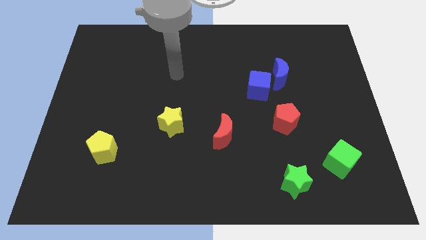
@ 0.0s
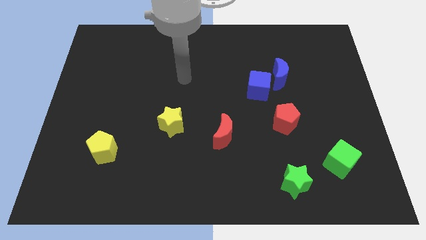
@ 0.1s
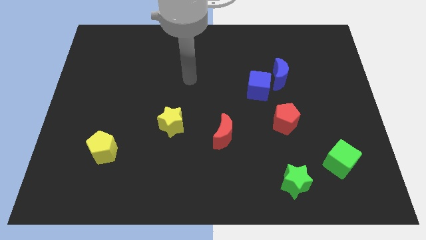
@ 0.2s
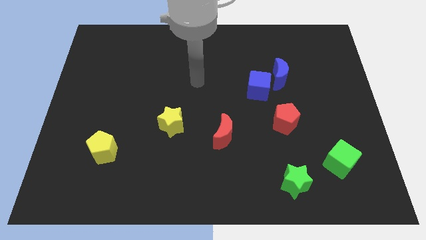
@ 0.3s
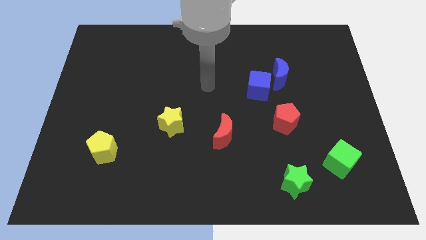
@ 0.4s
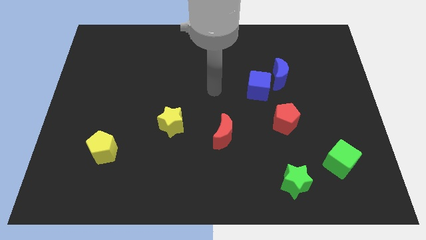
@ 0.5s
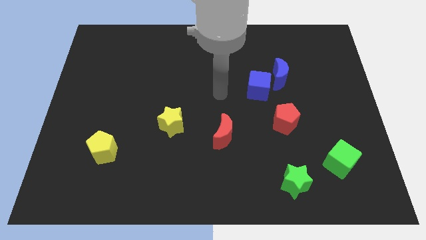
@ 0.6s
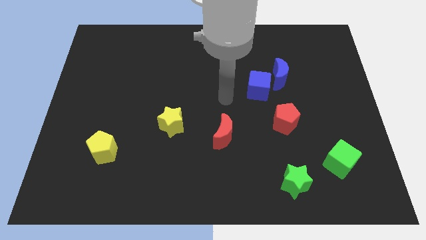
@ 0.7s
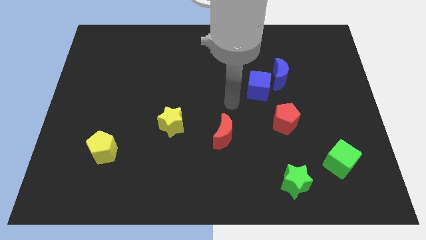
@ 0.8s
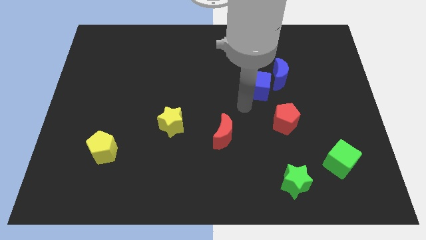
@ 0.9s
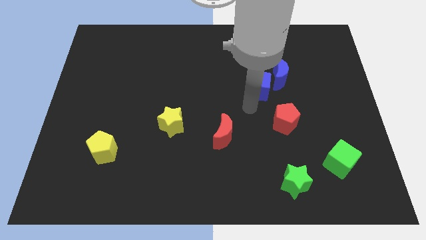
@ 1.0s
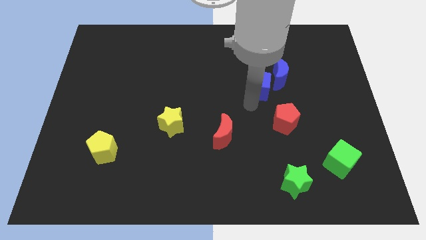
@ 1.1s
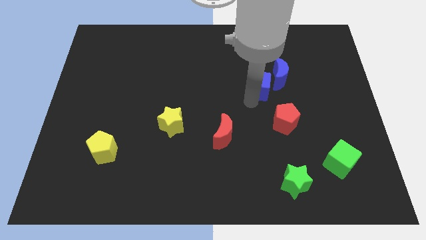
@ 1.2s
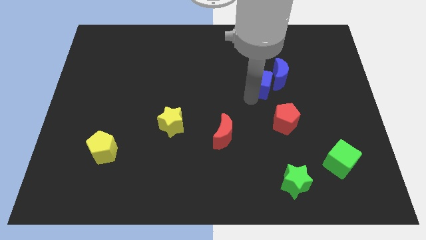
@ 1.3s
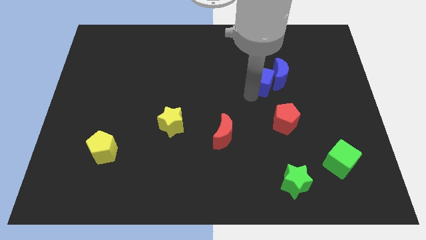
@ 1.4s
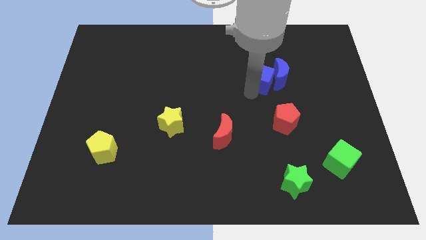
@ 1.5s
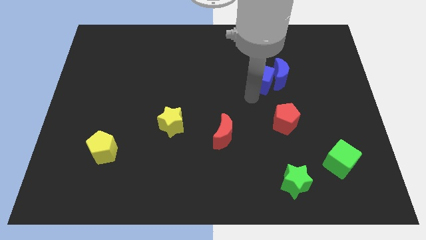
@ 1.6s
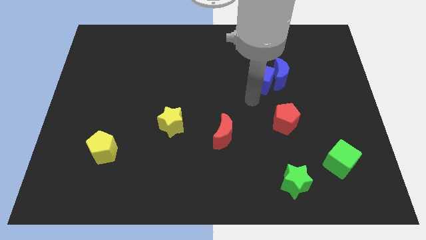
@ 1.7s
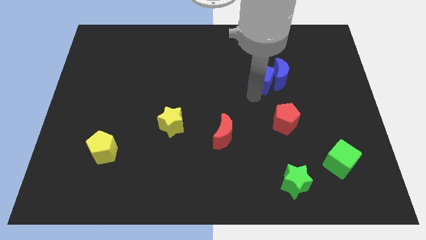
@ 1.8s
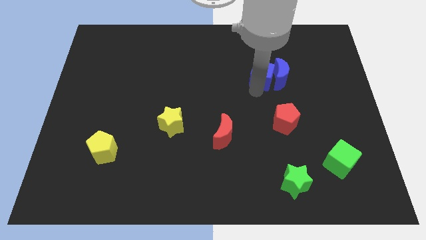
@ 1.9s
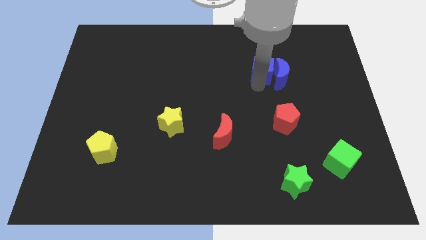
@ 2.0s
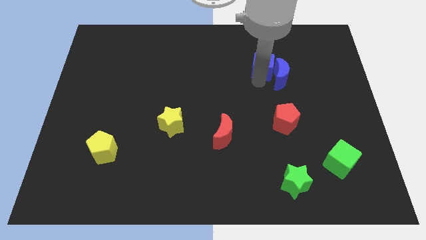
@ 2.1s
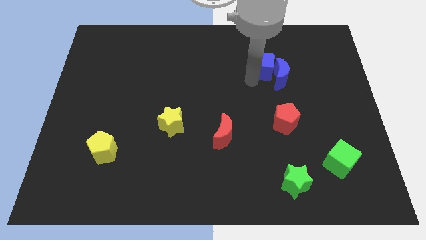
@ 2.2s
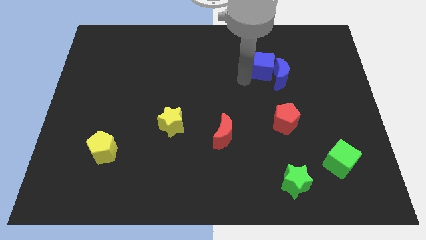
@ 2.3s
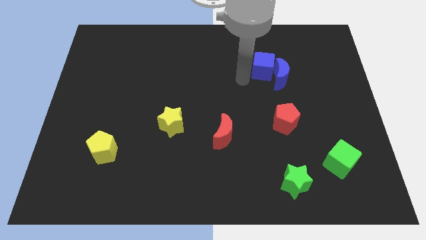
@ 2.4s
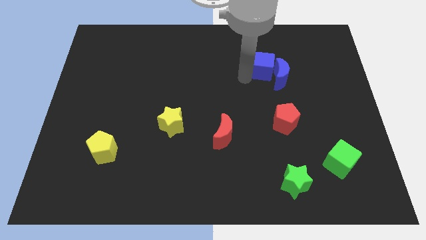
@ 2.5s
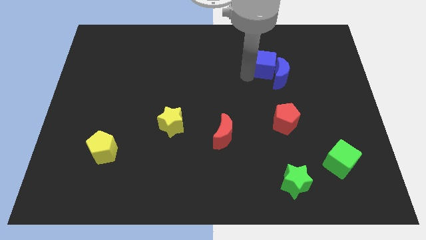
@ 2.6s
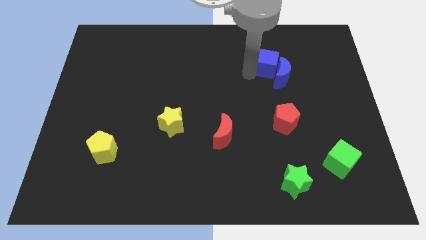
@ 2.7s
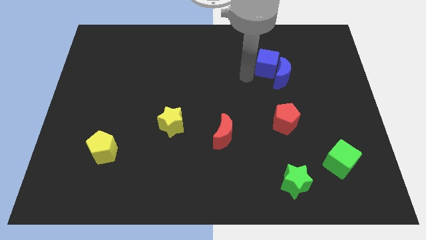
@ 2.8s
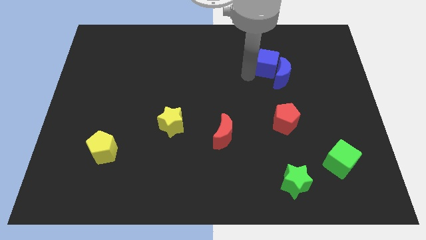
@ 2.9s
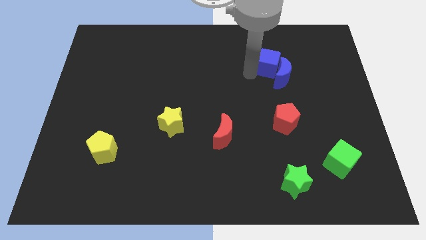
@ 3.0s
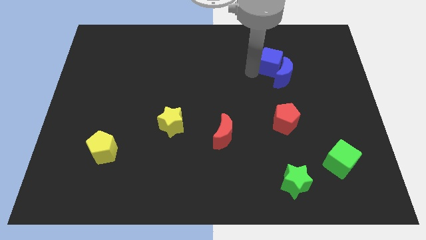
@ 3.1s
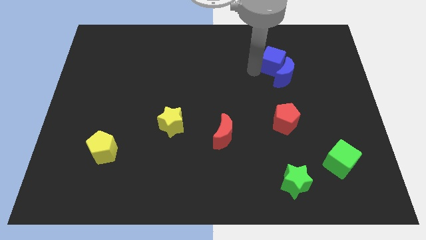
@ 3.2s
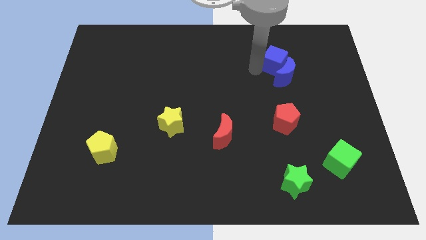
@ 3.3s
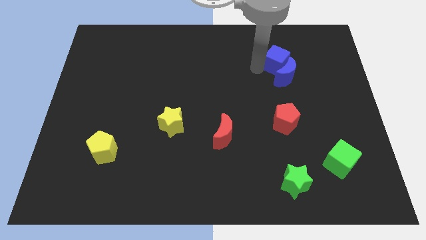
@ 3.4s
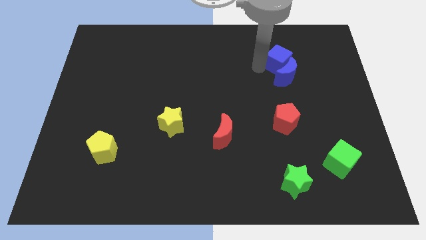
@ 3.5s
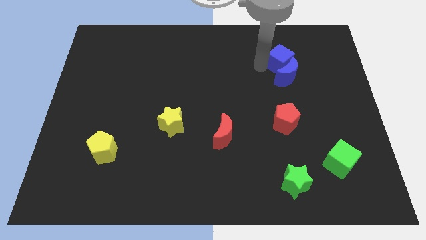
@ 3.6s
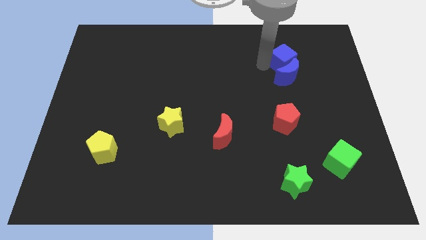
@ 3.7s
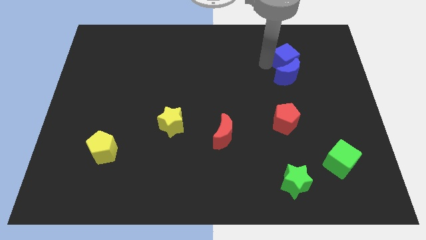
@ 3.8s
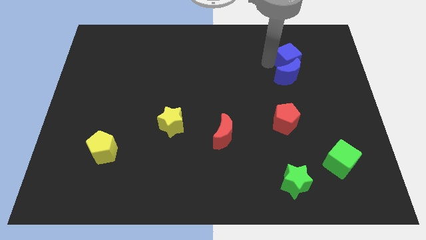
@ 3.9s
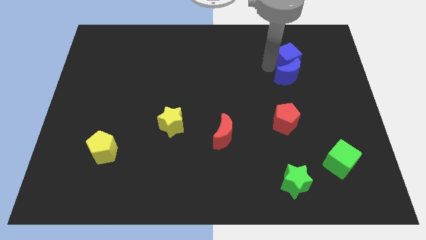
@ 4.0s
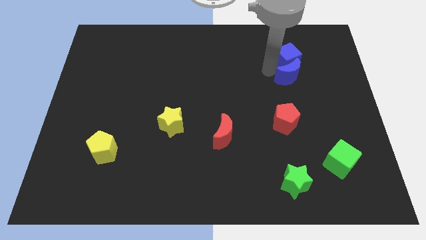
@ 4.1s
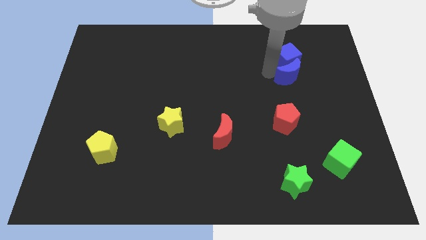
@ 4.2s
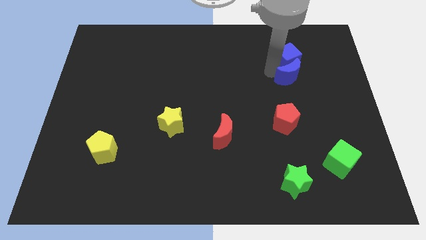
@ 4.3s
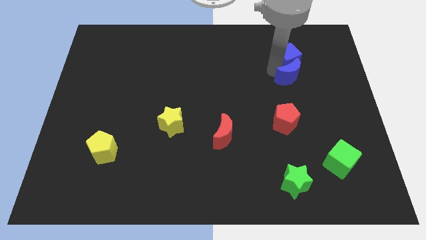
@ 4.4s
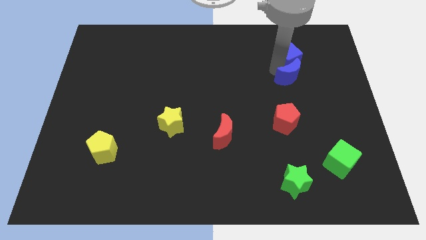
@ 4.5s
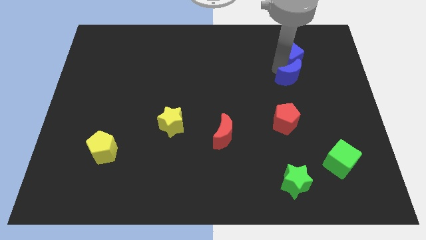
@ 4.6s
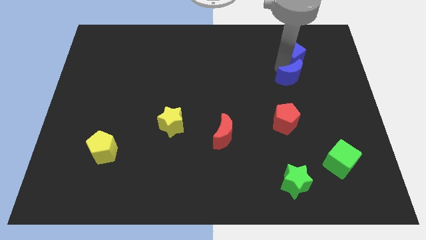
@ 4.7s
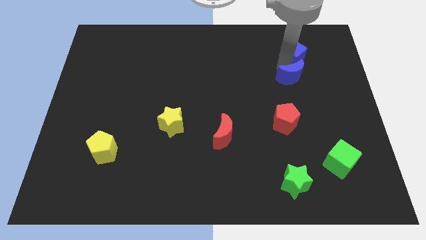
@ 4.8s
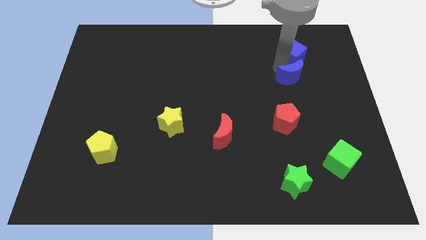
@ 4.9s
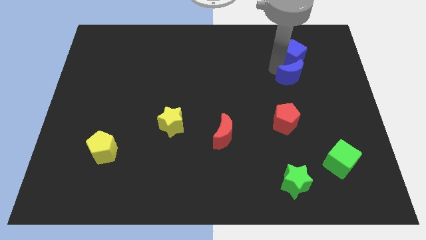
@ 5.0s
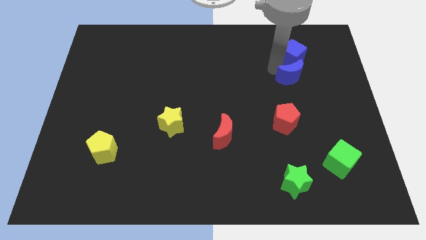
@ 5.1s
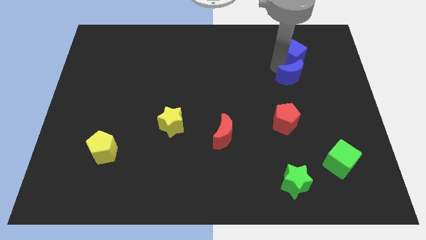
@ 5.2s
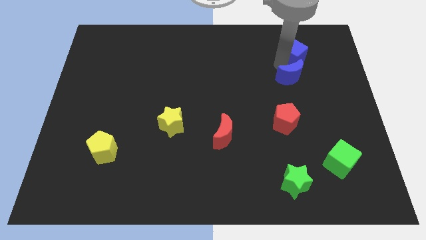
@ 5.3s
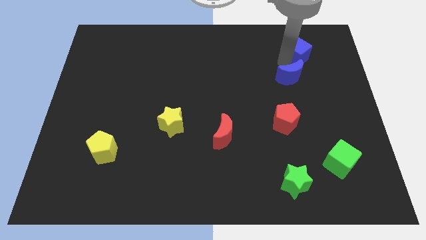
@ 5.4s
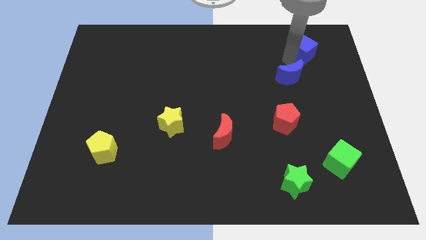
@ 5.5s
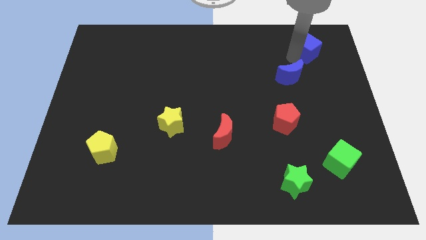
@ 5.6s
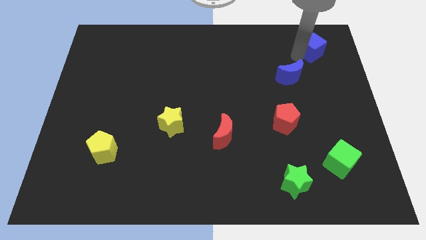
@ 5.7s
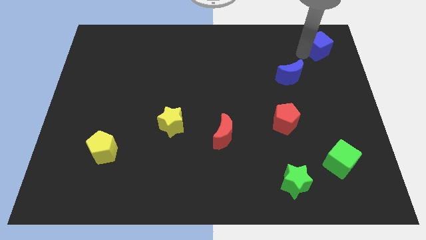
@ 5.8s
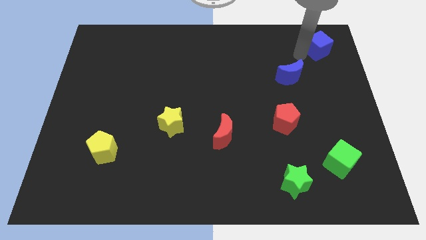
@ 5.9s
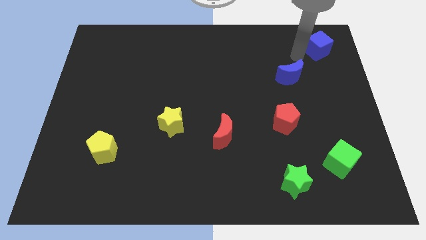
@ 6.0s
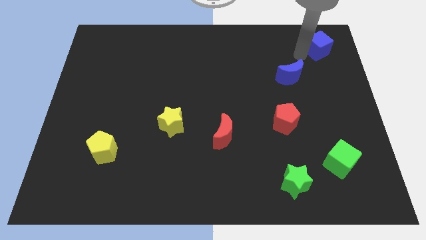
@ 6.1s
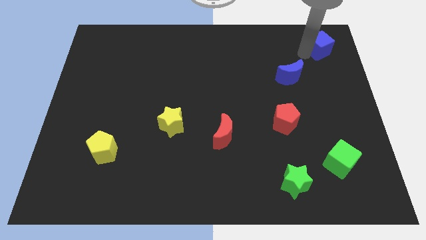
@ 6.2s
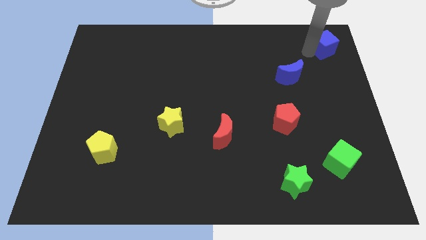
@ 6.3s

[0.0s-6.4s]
put the blue cube to the top right of the board
